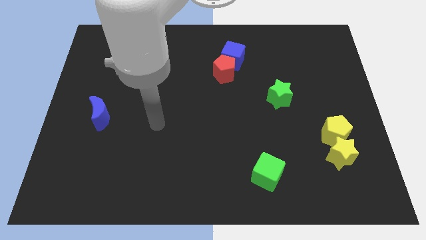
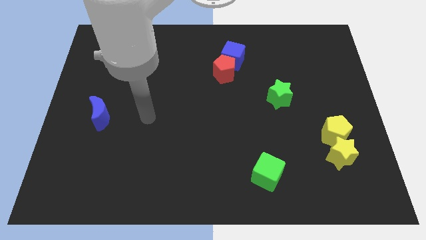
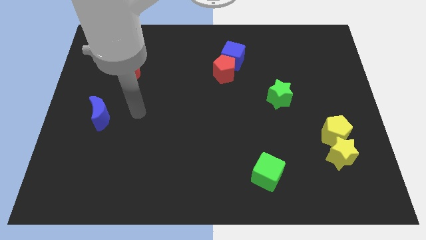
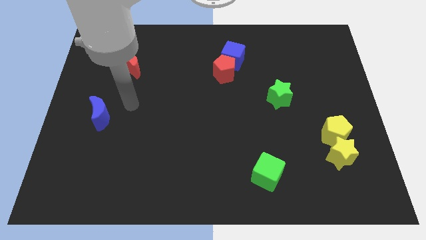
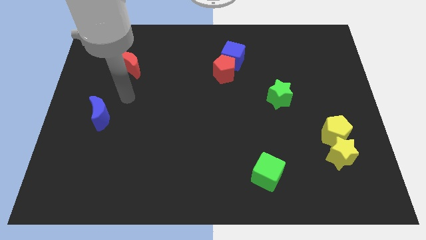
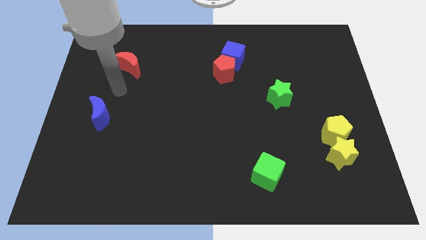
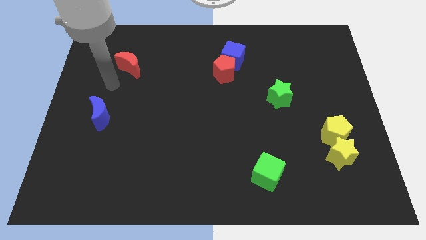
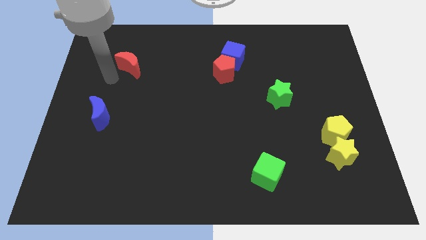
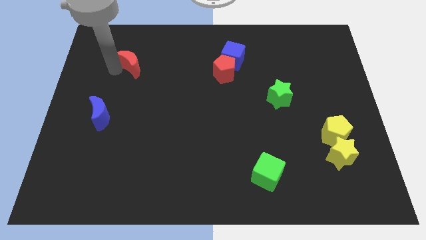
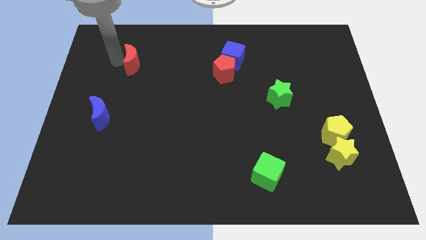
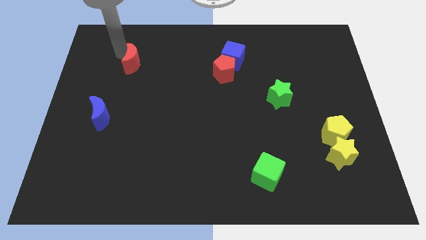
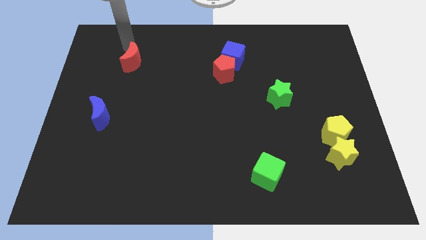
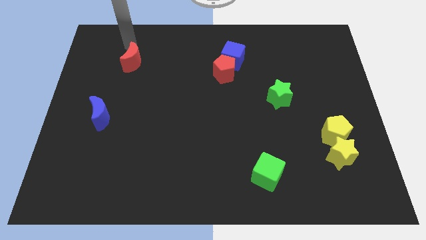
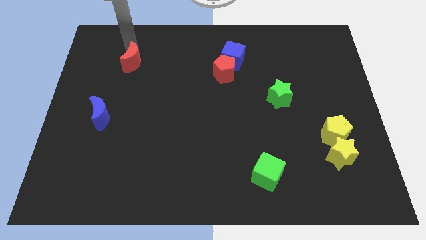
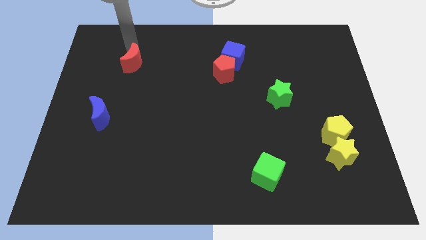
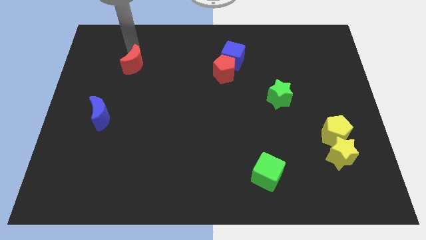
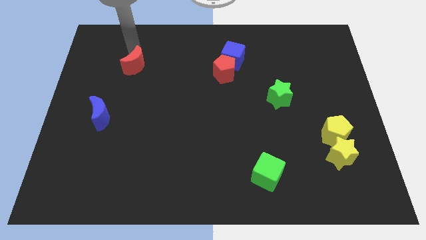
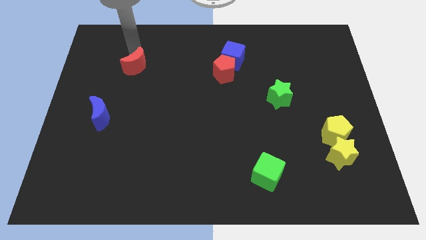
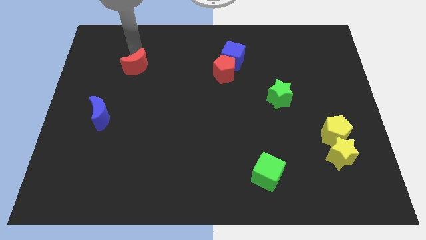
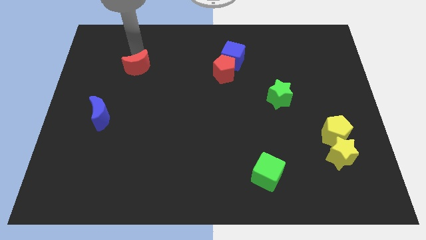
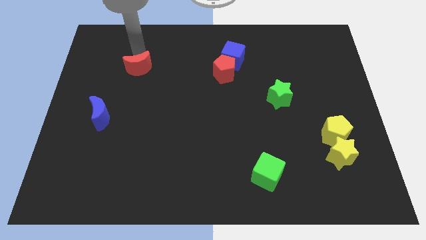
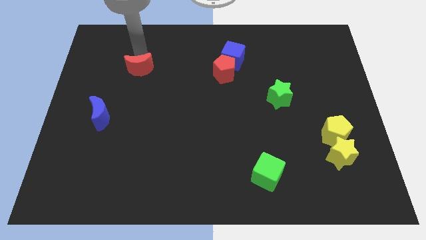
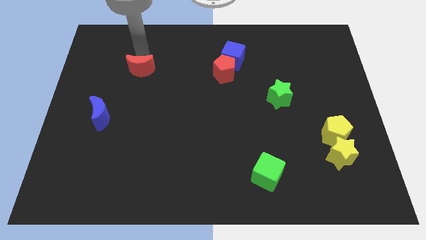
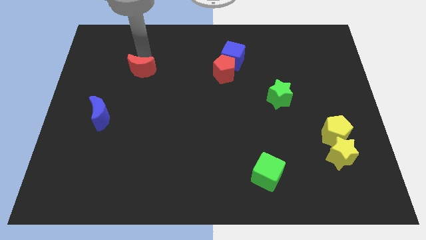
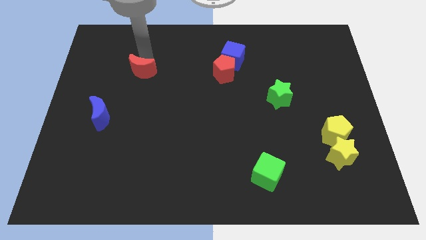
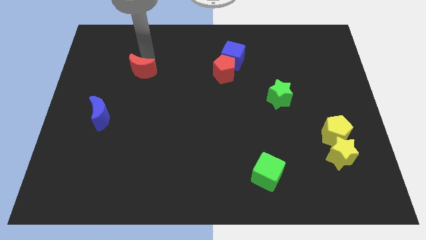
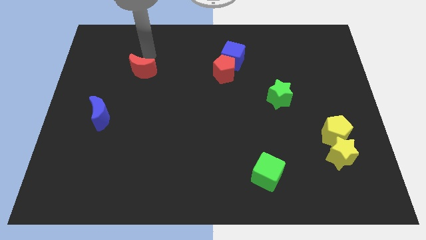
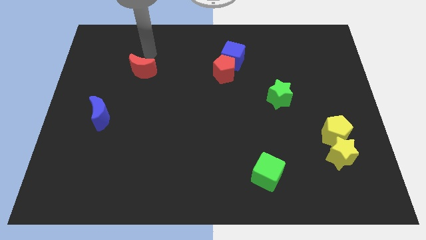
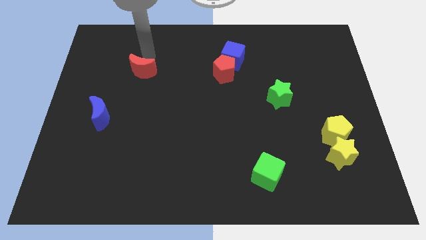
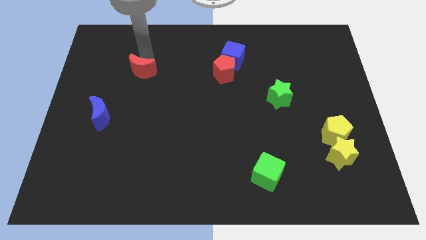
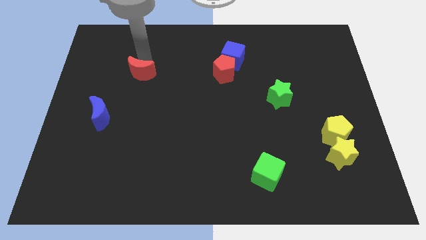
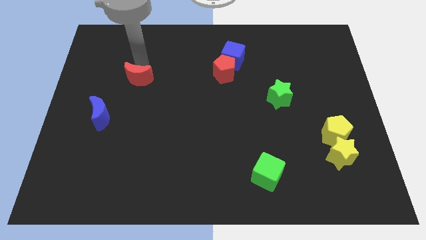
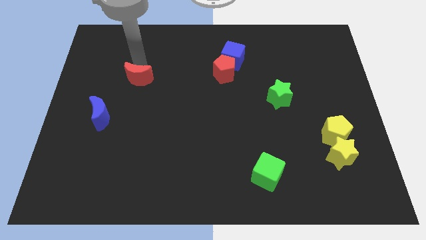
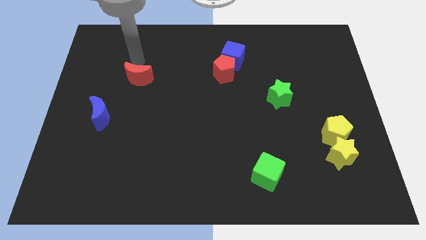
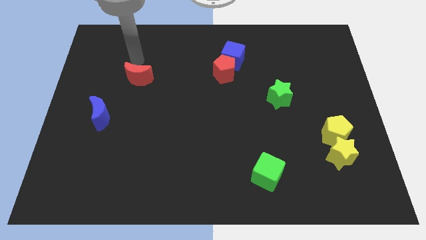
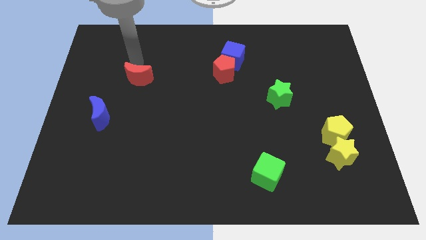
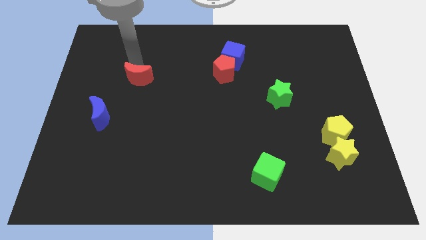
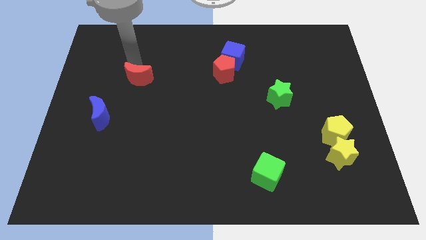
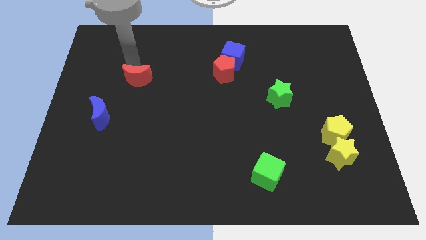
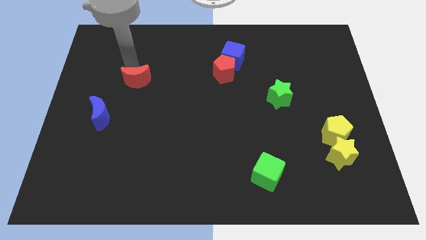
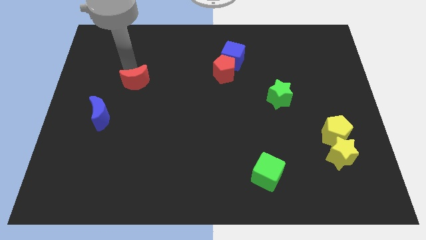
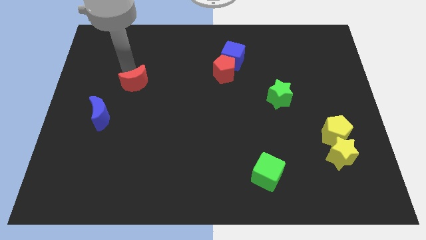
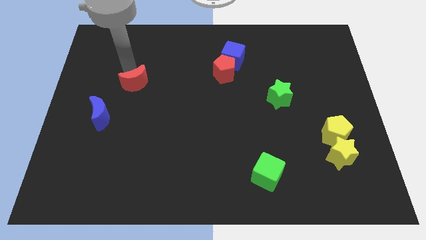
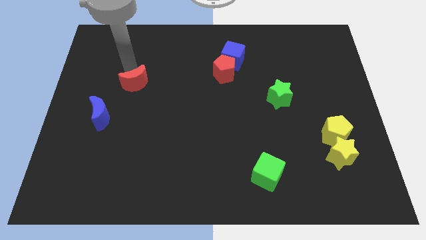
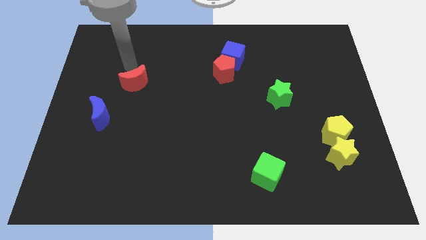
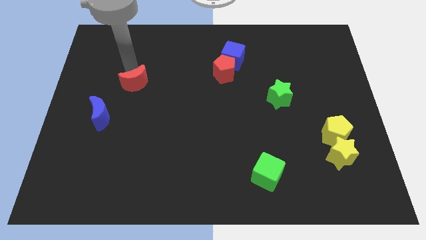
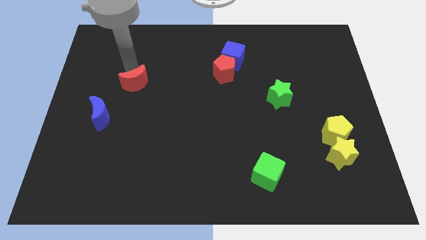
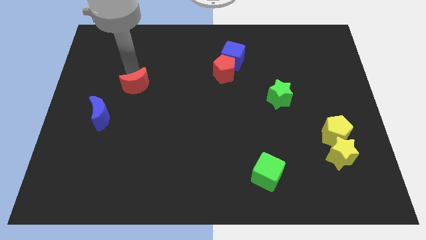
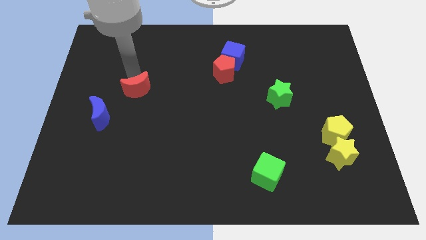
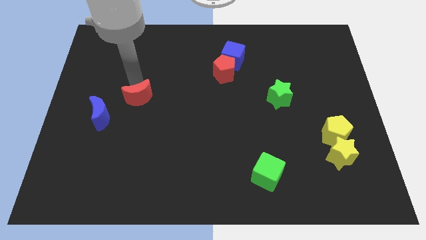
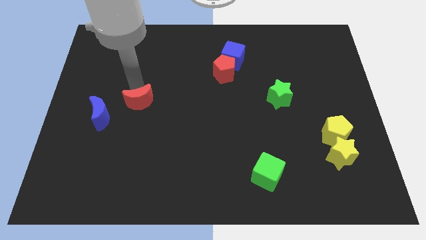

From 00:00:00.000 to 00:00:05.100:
move the red moon to the right side of the blue moon

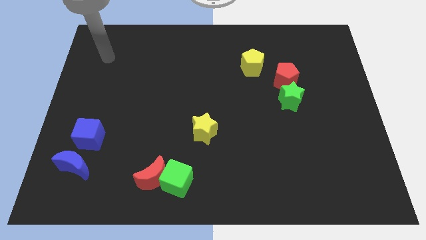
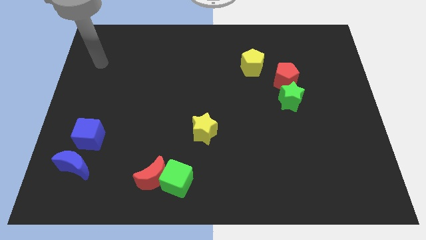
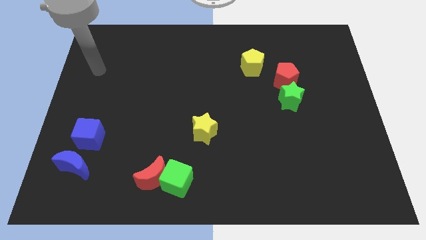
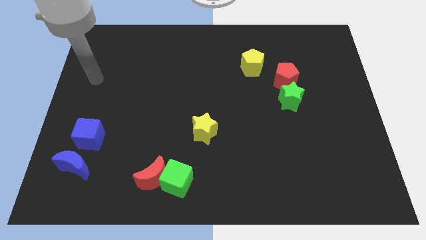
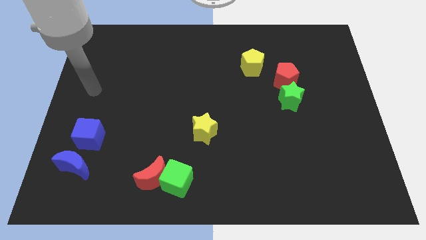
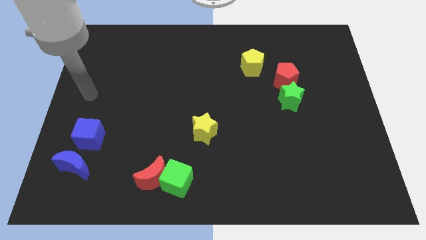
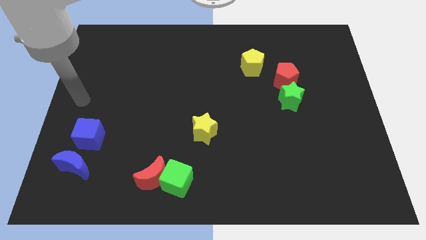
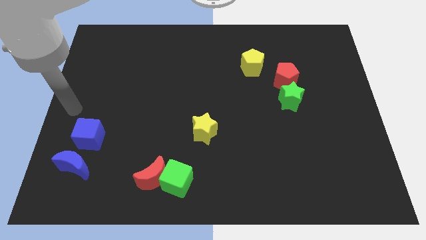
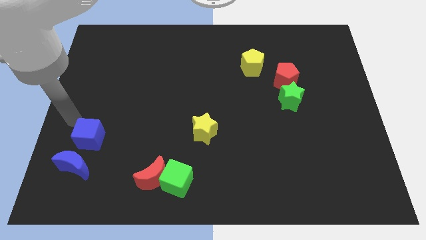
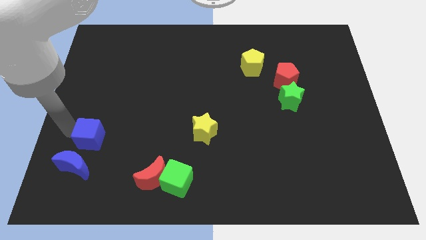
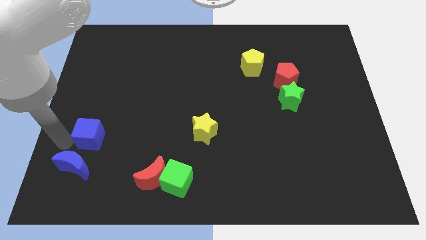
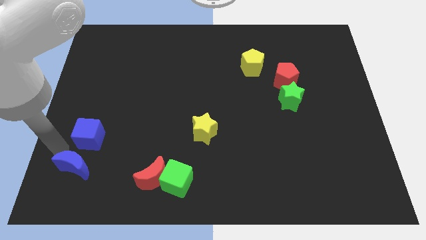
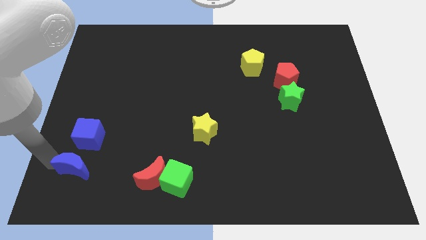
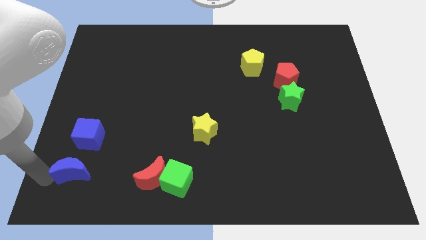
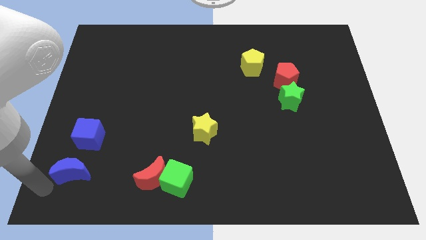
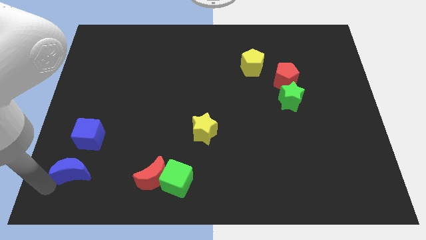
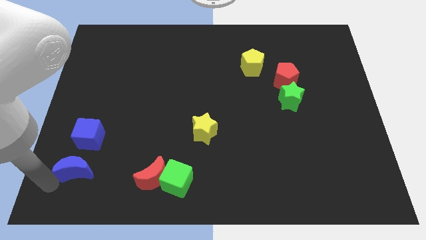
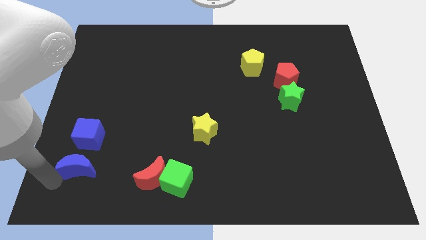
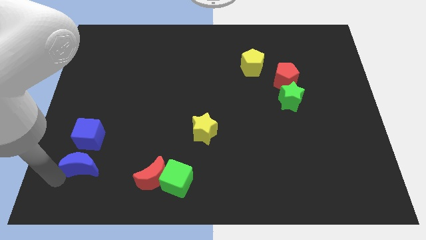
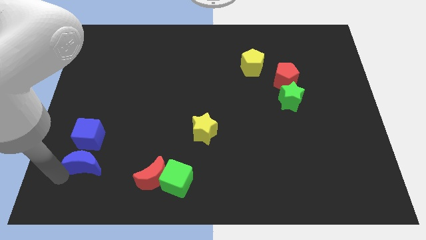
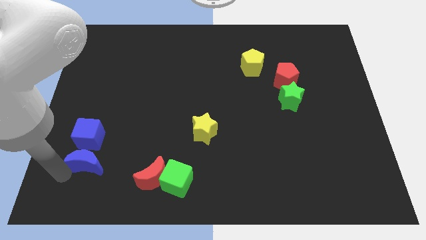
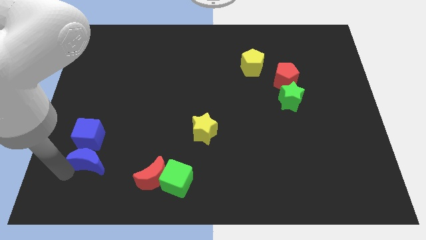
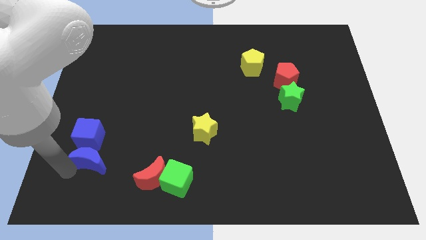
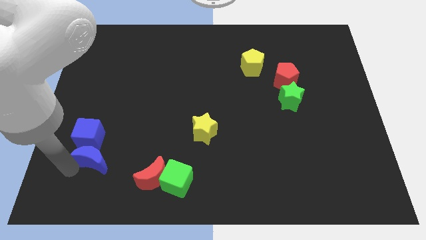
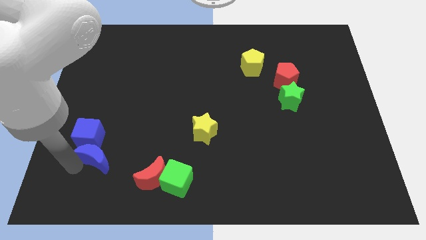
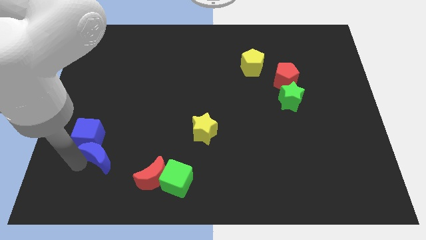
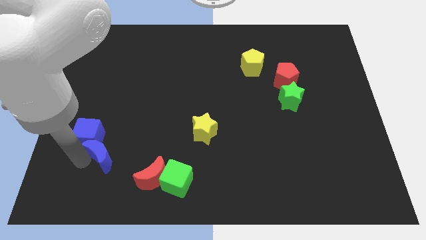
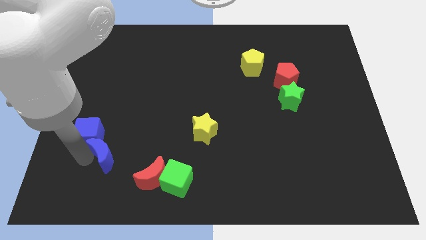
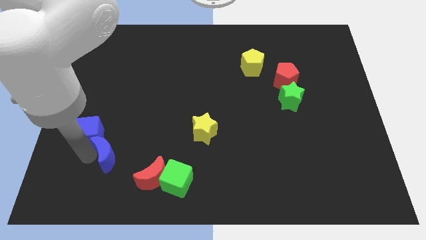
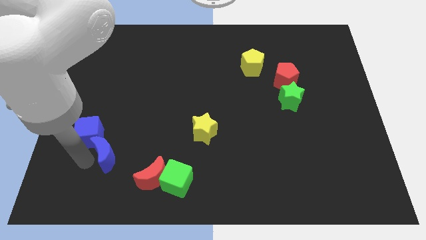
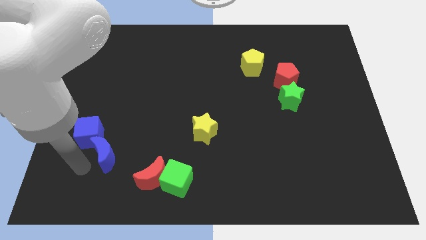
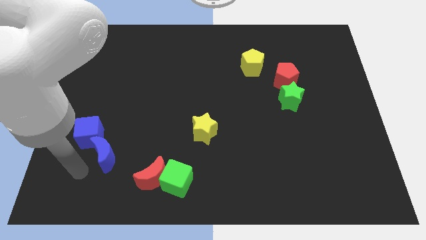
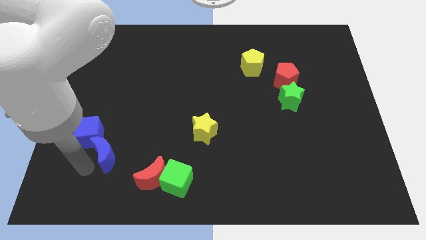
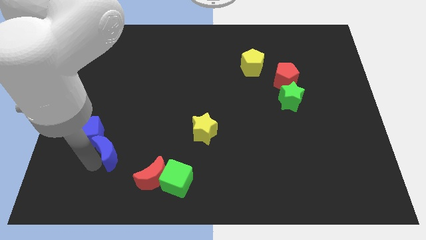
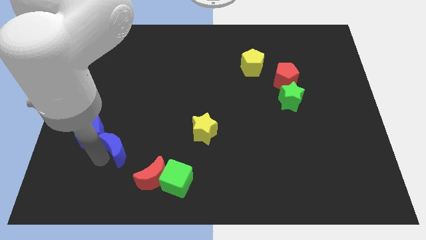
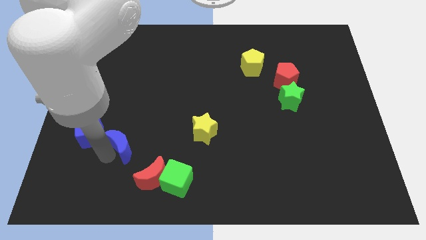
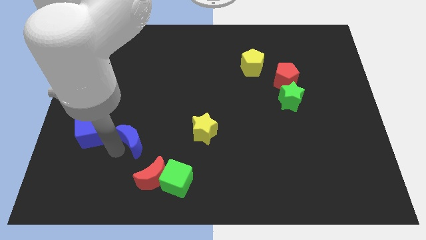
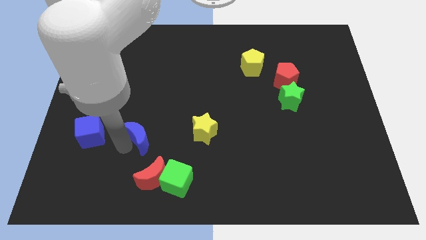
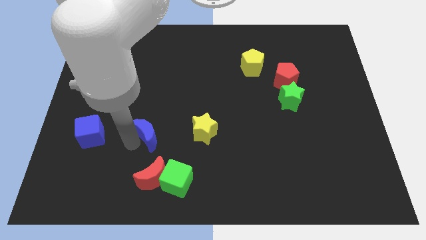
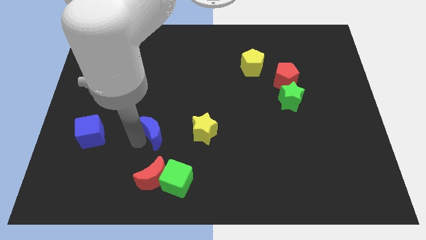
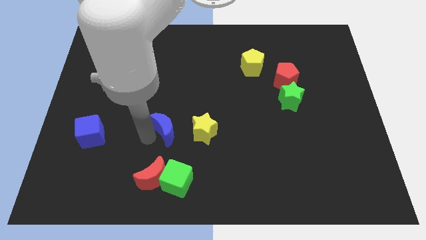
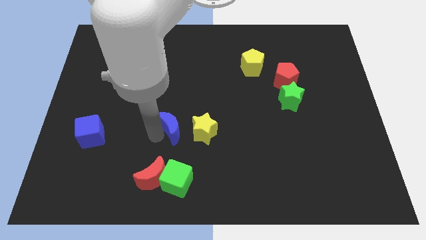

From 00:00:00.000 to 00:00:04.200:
slide the blue moon diagonally up and to the left of the yellow star
